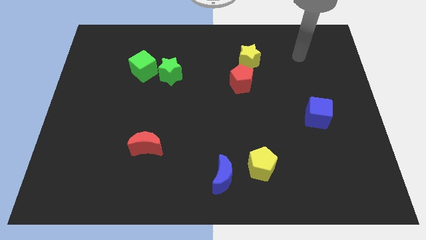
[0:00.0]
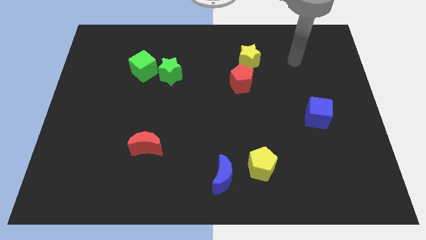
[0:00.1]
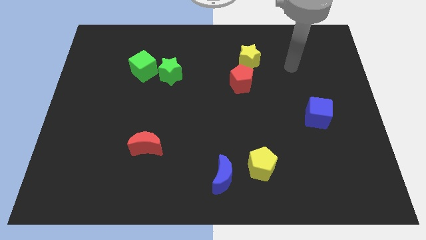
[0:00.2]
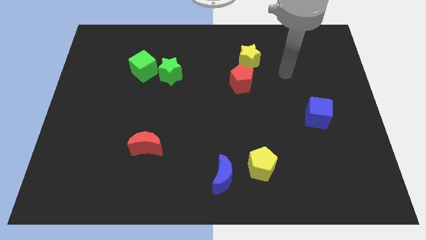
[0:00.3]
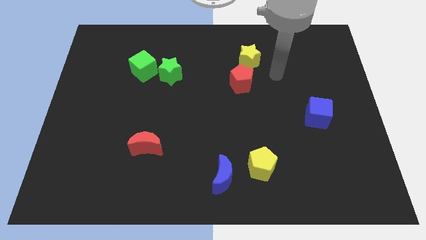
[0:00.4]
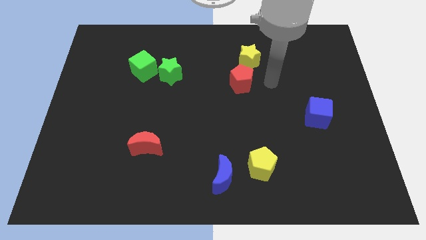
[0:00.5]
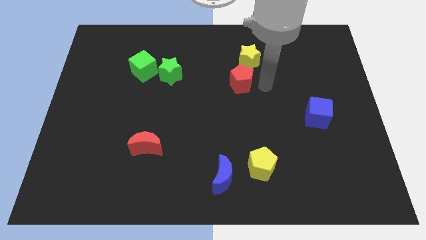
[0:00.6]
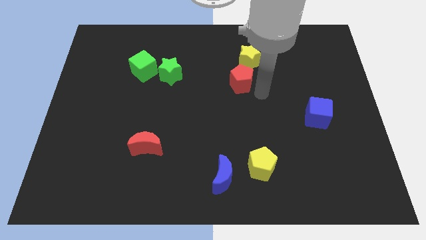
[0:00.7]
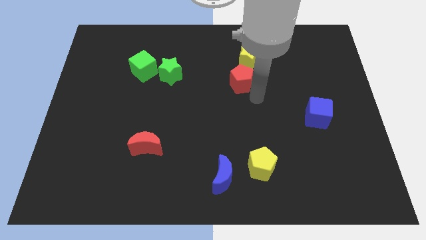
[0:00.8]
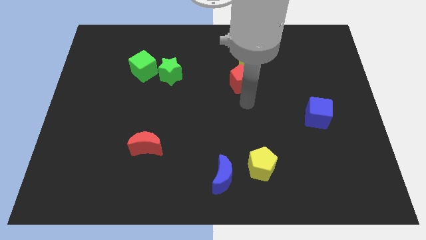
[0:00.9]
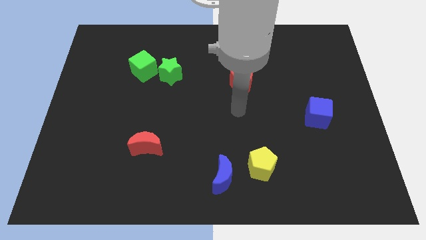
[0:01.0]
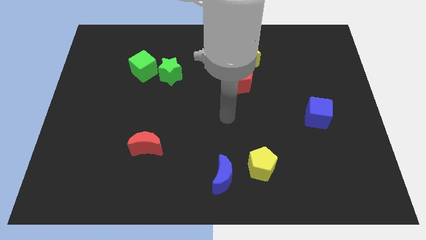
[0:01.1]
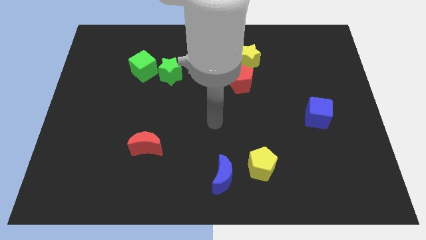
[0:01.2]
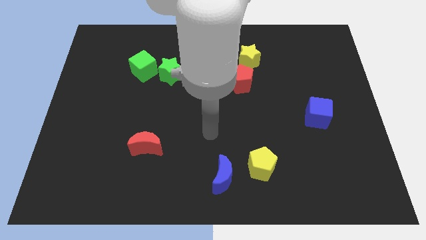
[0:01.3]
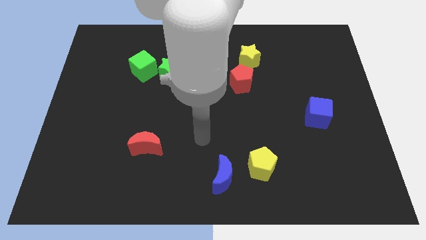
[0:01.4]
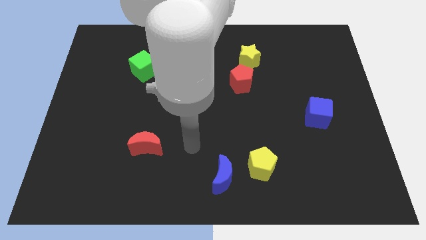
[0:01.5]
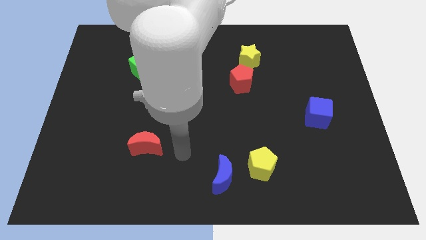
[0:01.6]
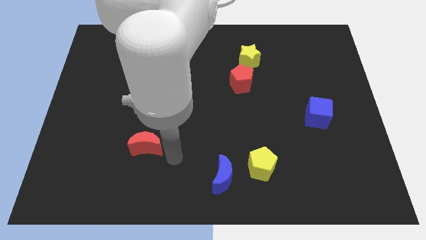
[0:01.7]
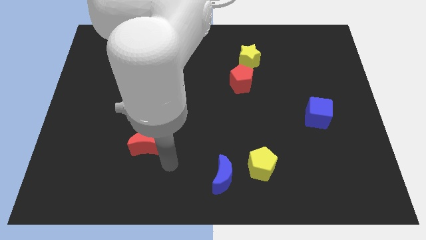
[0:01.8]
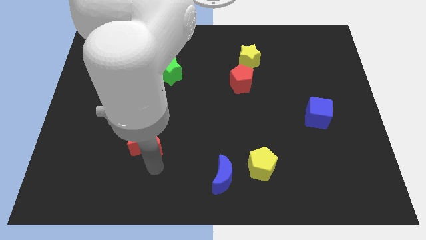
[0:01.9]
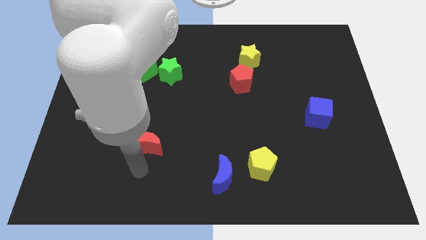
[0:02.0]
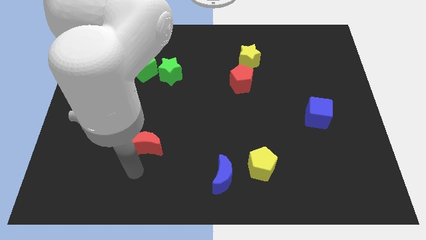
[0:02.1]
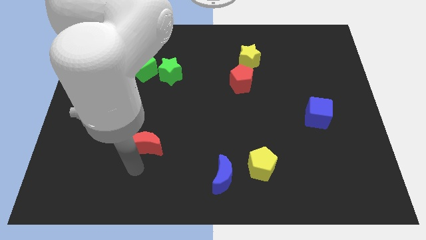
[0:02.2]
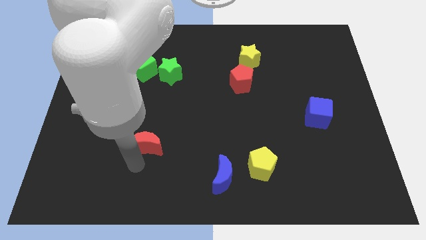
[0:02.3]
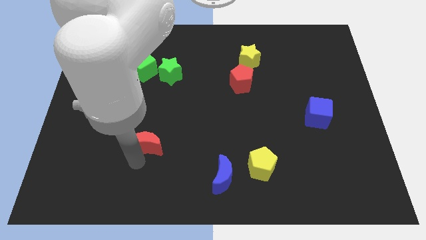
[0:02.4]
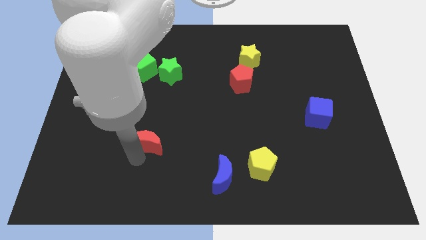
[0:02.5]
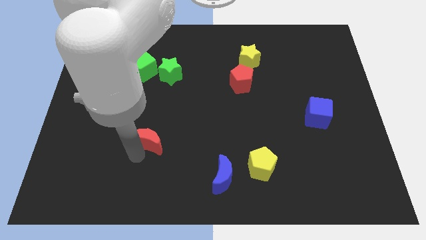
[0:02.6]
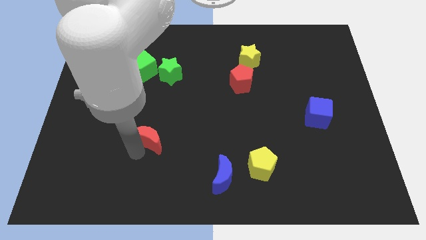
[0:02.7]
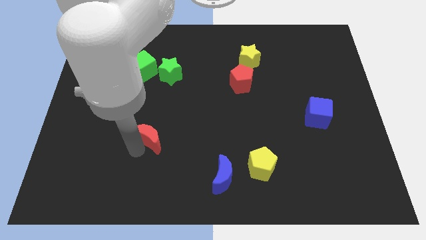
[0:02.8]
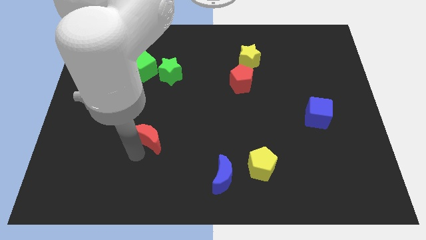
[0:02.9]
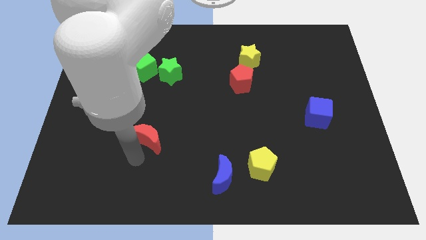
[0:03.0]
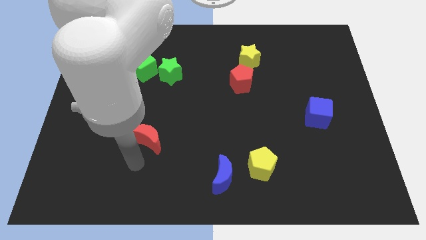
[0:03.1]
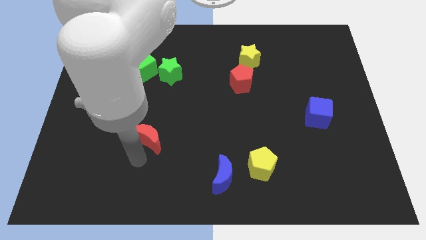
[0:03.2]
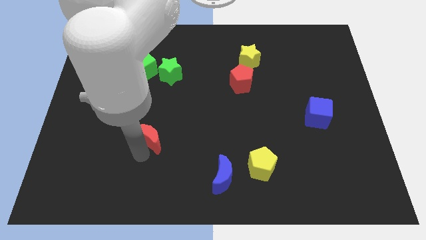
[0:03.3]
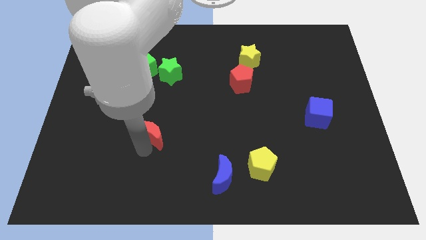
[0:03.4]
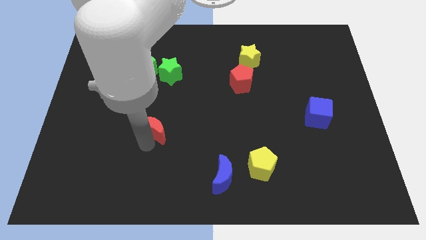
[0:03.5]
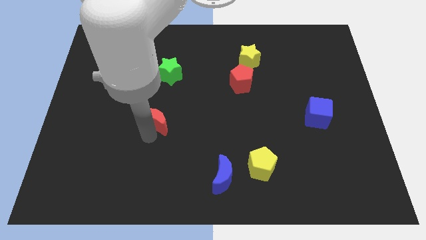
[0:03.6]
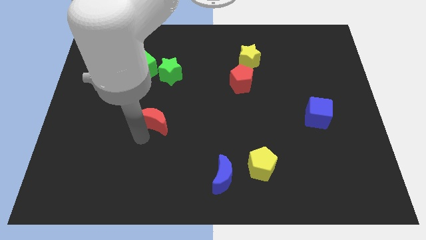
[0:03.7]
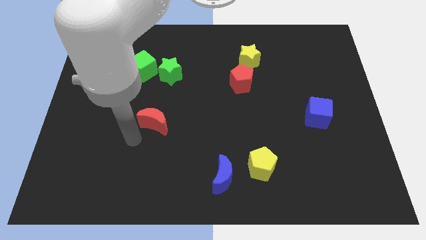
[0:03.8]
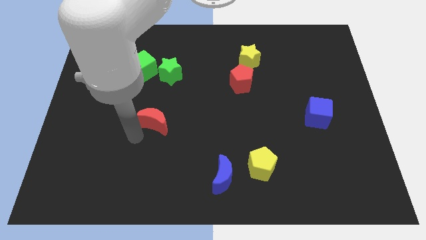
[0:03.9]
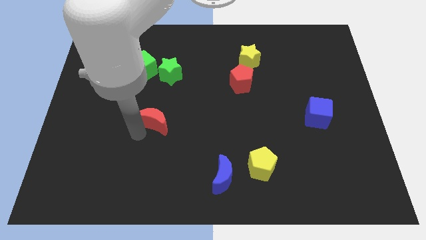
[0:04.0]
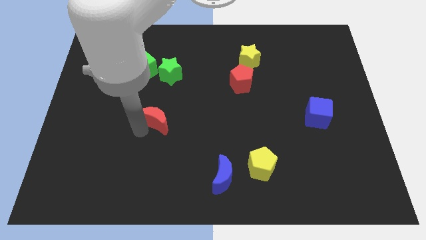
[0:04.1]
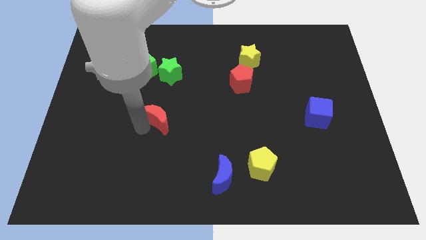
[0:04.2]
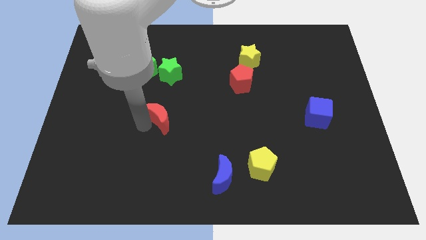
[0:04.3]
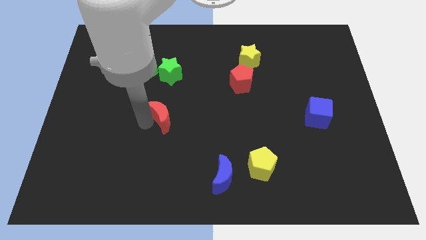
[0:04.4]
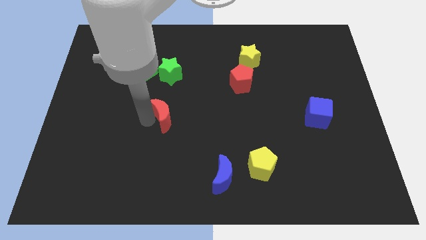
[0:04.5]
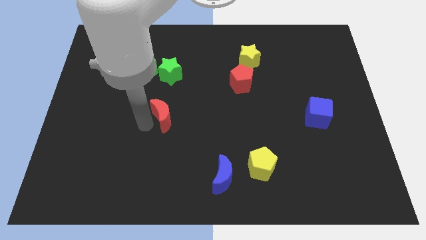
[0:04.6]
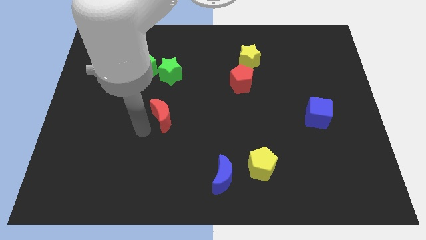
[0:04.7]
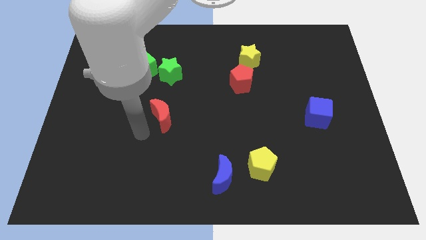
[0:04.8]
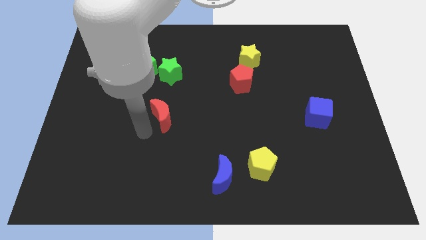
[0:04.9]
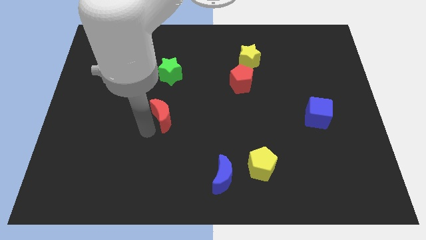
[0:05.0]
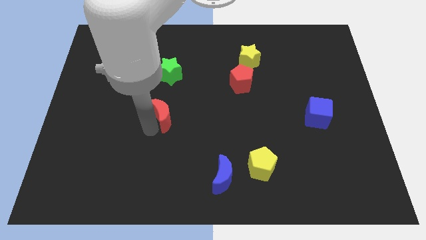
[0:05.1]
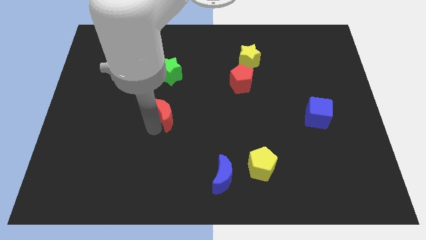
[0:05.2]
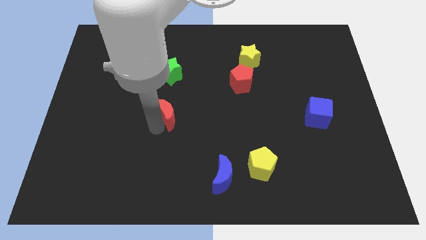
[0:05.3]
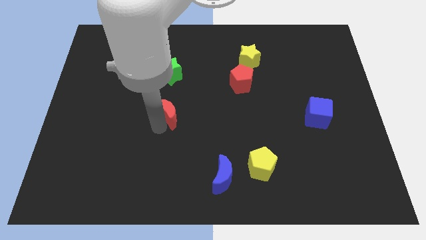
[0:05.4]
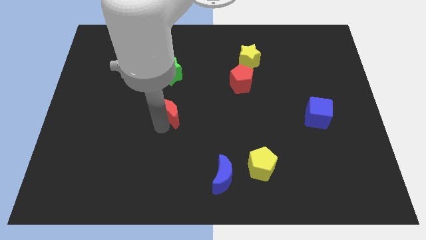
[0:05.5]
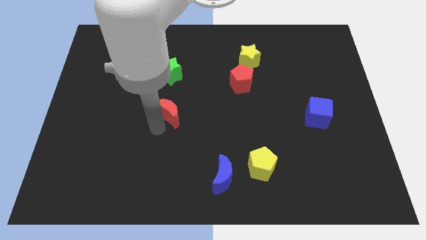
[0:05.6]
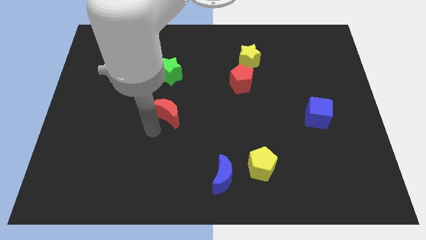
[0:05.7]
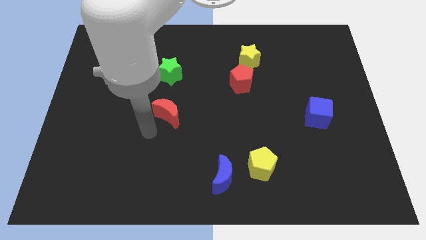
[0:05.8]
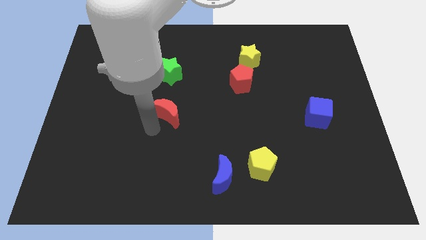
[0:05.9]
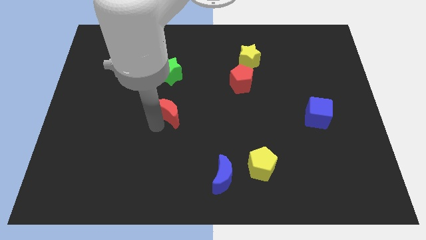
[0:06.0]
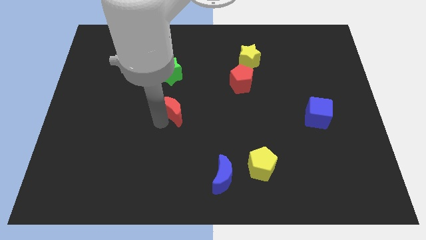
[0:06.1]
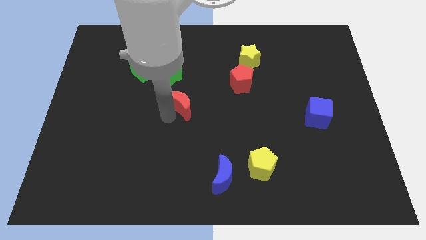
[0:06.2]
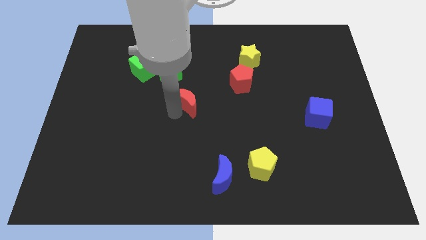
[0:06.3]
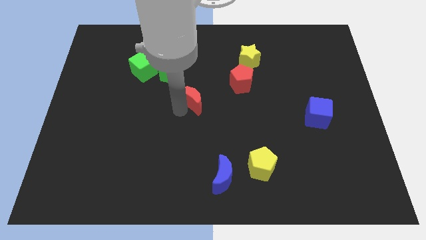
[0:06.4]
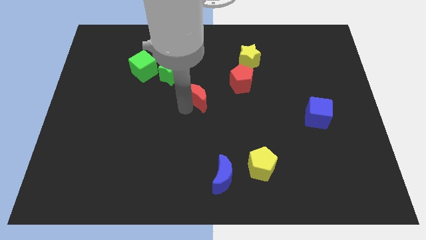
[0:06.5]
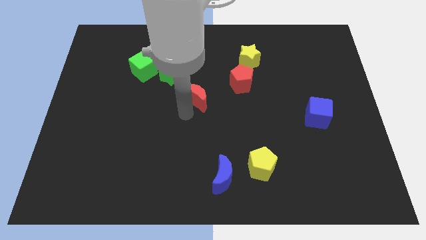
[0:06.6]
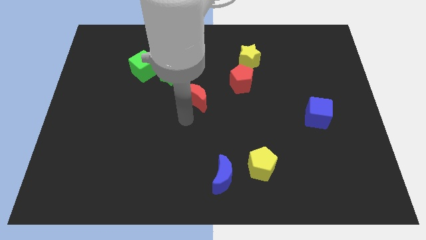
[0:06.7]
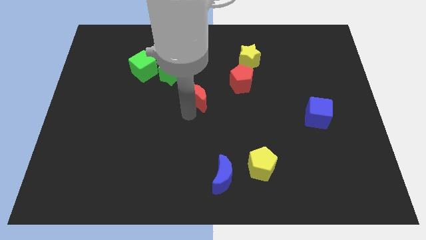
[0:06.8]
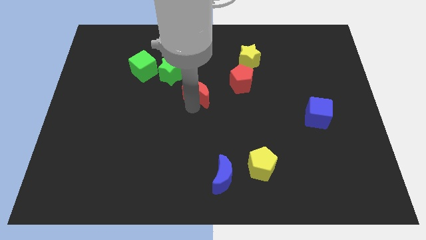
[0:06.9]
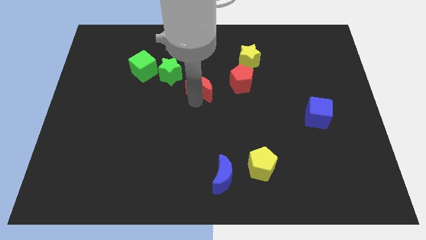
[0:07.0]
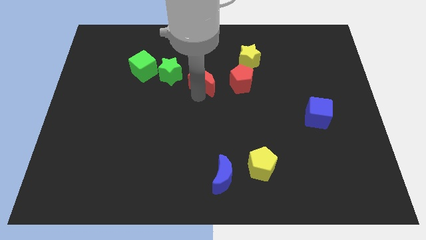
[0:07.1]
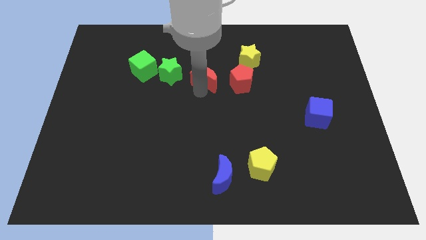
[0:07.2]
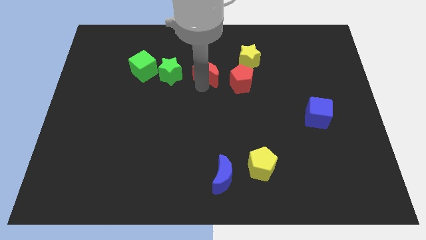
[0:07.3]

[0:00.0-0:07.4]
slide the red moon diagonally up and to the left of the red pentagon

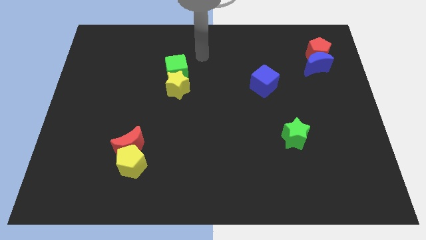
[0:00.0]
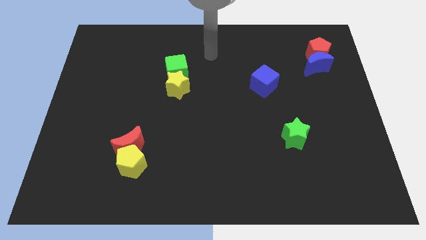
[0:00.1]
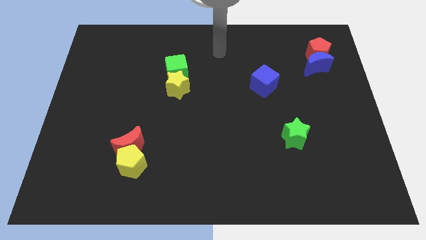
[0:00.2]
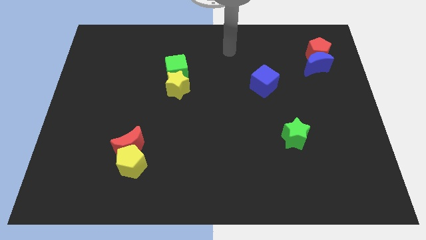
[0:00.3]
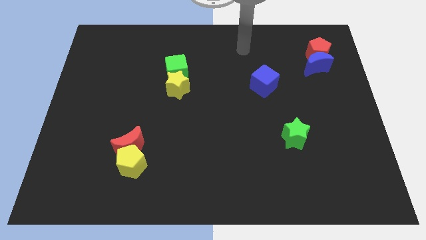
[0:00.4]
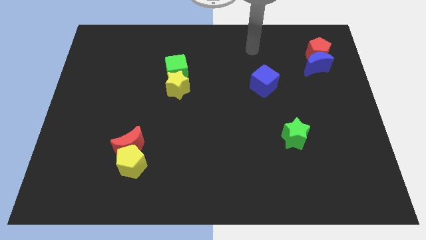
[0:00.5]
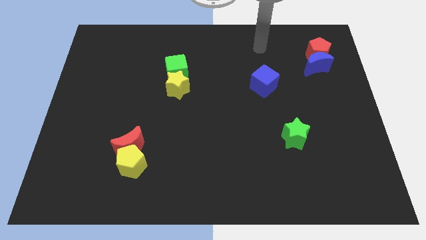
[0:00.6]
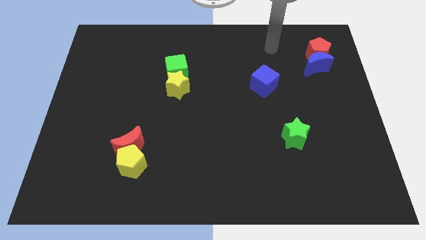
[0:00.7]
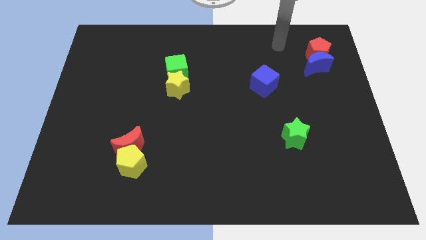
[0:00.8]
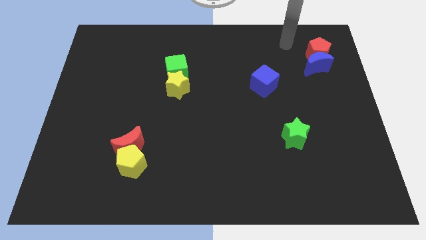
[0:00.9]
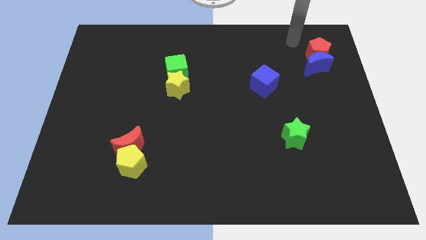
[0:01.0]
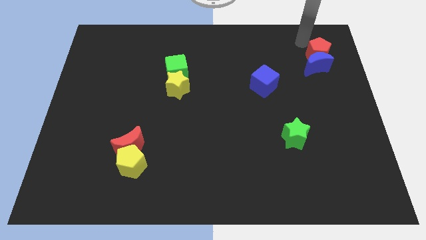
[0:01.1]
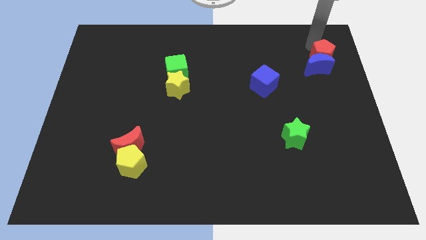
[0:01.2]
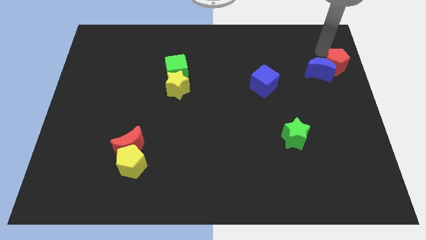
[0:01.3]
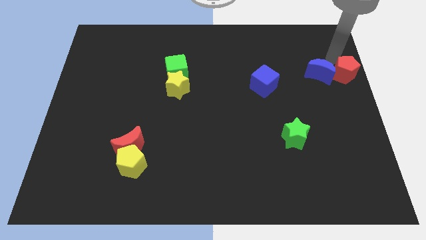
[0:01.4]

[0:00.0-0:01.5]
move the blue moon to the right side of the blue cube
